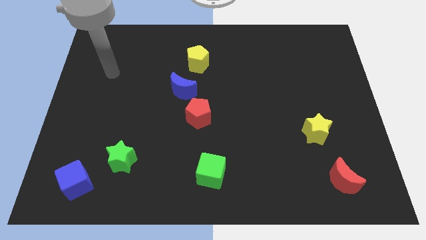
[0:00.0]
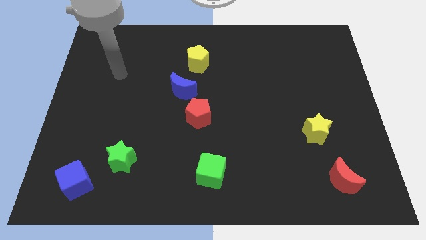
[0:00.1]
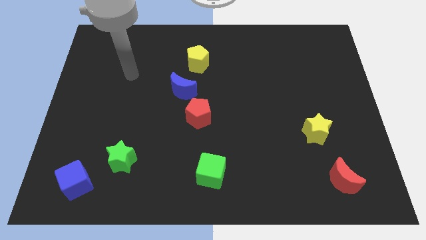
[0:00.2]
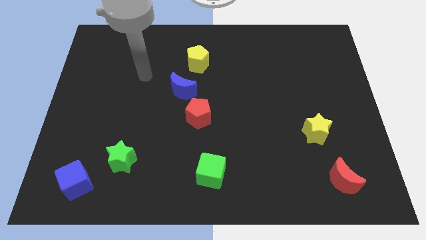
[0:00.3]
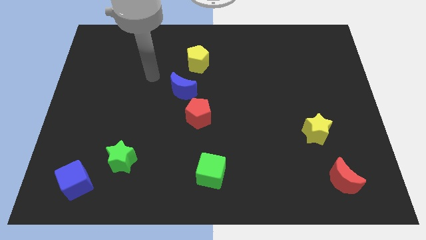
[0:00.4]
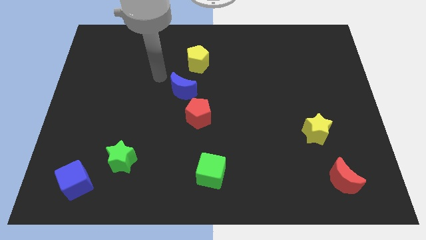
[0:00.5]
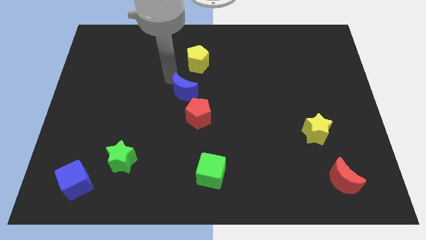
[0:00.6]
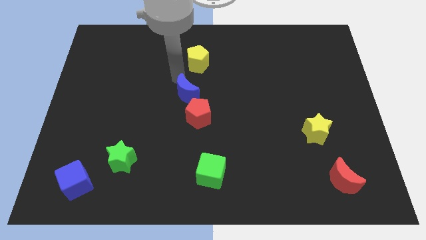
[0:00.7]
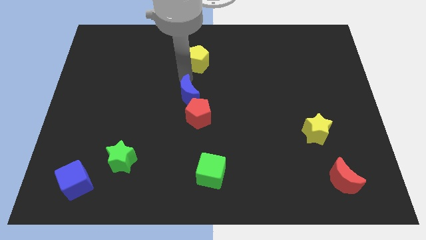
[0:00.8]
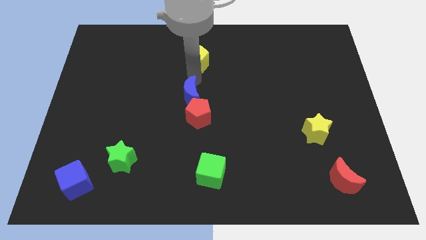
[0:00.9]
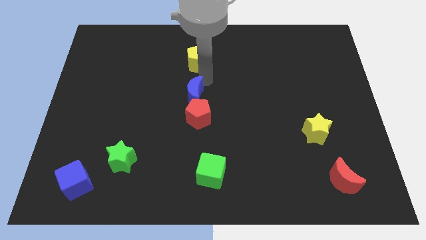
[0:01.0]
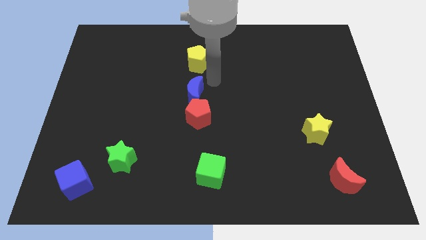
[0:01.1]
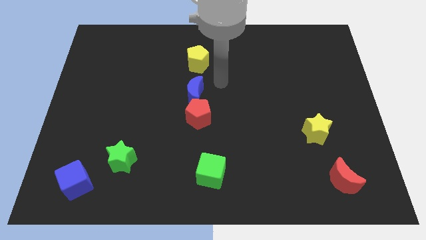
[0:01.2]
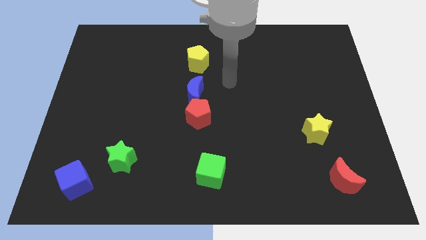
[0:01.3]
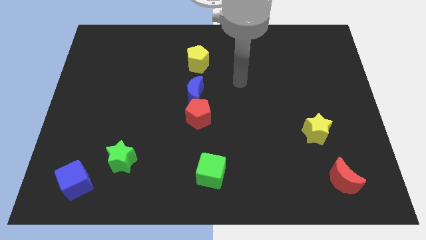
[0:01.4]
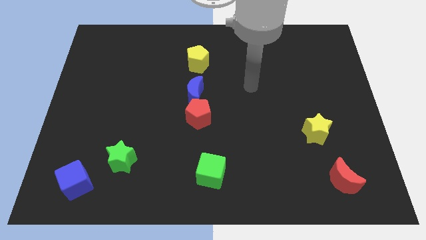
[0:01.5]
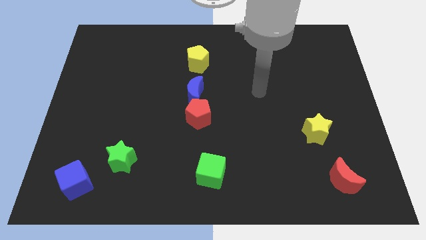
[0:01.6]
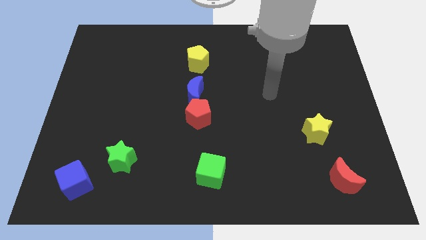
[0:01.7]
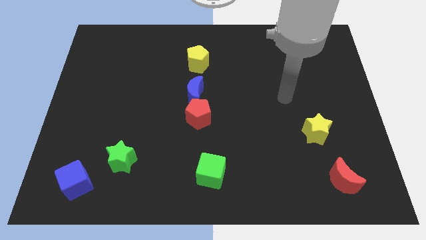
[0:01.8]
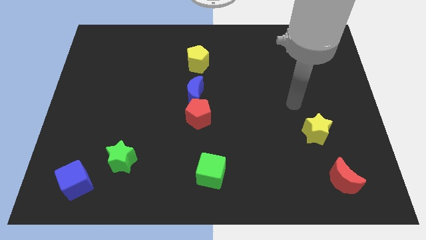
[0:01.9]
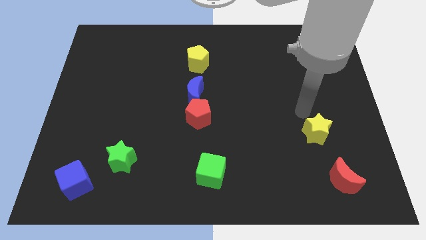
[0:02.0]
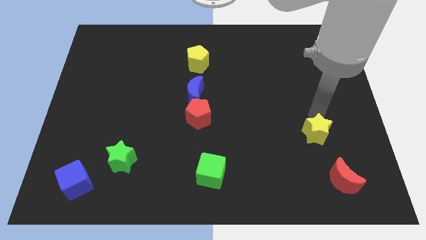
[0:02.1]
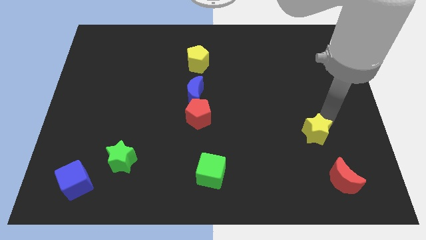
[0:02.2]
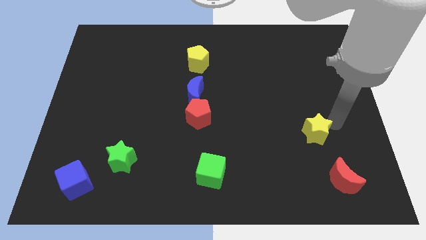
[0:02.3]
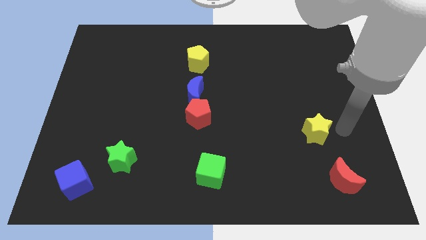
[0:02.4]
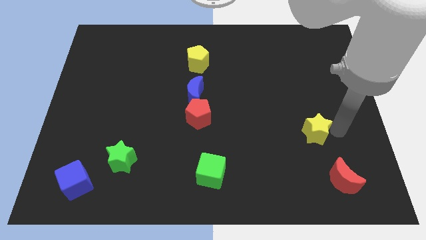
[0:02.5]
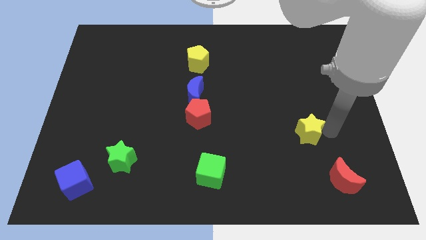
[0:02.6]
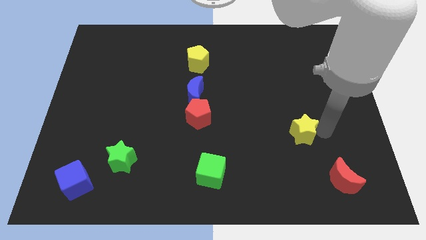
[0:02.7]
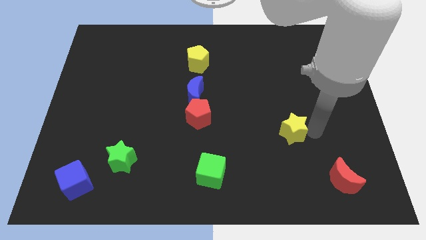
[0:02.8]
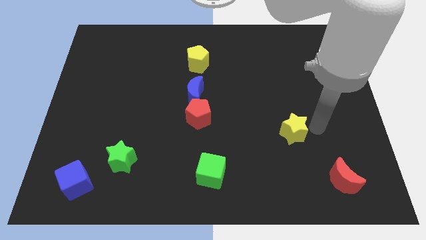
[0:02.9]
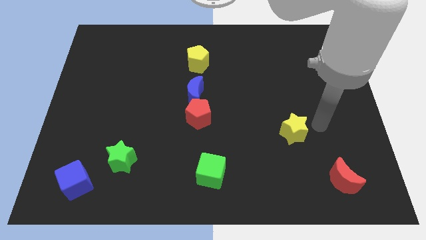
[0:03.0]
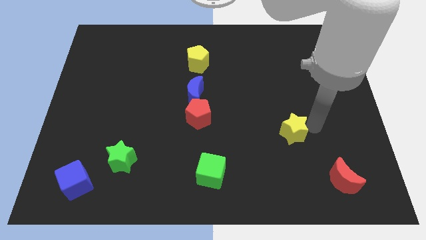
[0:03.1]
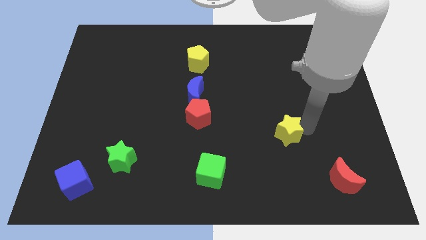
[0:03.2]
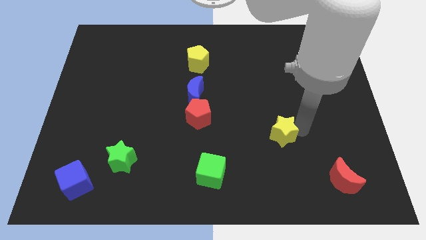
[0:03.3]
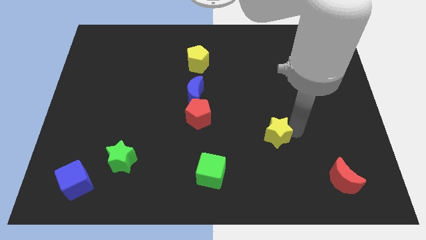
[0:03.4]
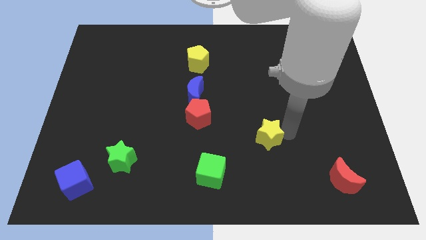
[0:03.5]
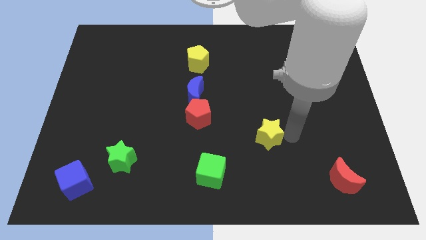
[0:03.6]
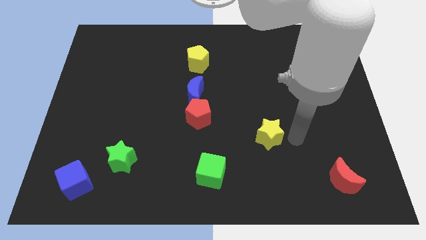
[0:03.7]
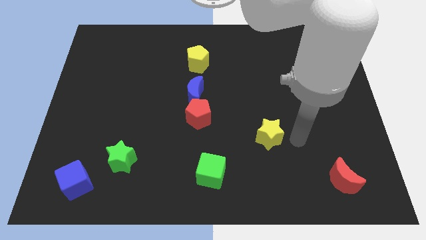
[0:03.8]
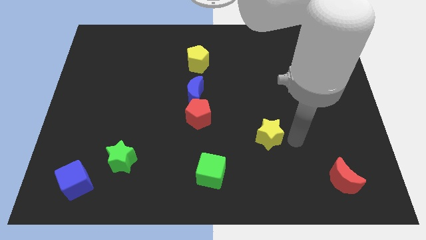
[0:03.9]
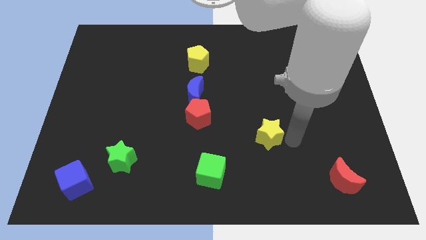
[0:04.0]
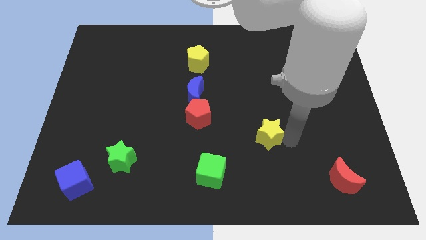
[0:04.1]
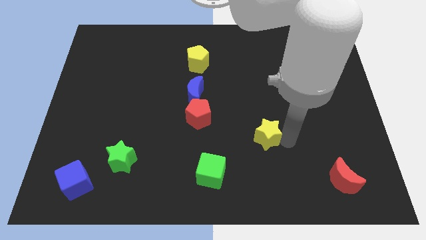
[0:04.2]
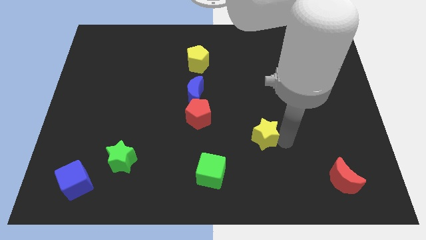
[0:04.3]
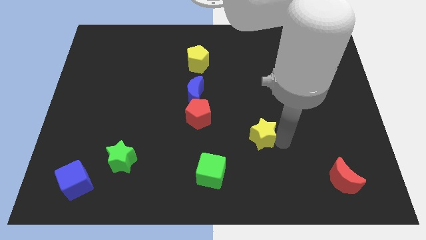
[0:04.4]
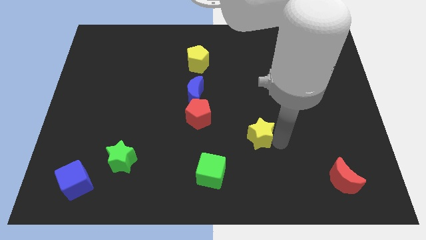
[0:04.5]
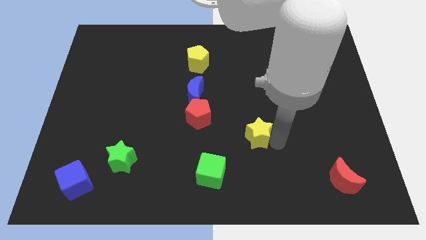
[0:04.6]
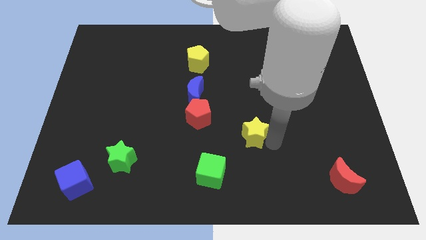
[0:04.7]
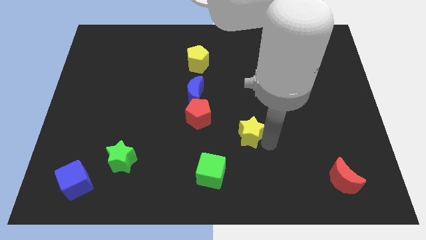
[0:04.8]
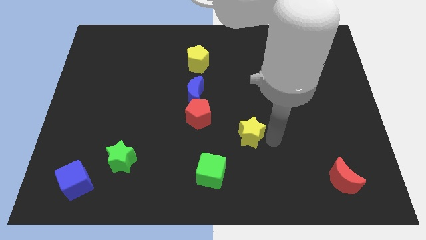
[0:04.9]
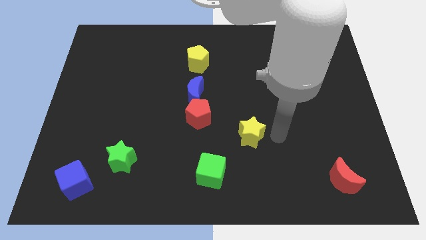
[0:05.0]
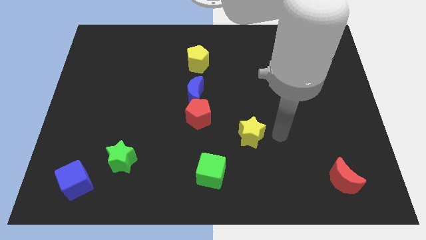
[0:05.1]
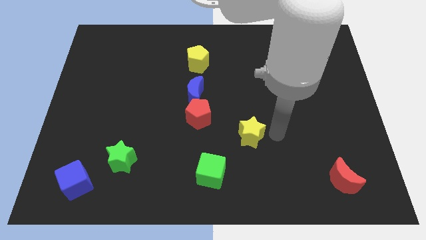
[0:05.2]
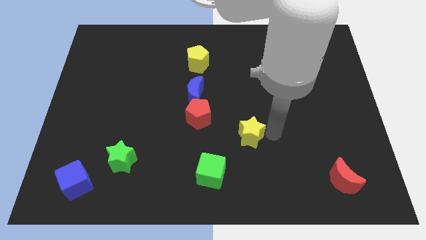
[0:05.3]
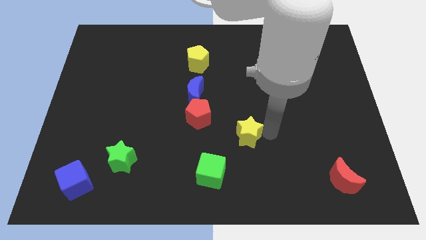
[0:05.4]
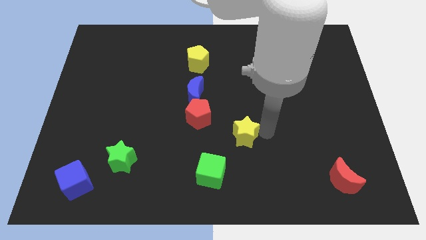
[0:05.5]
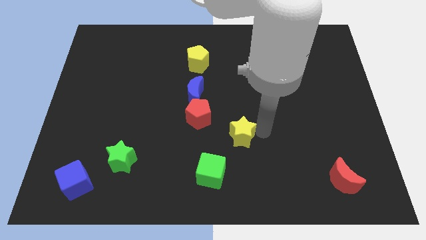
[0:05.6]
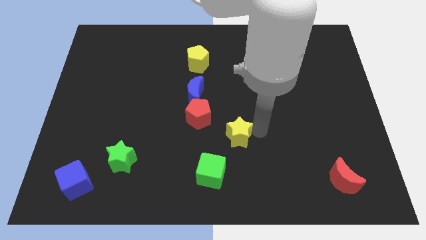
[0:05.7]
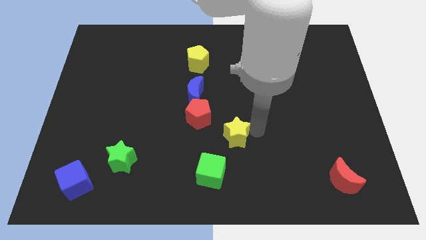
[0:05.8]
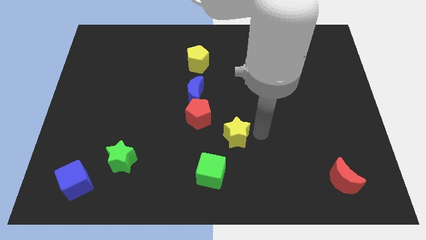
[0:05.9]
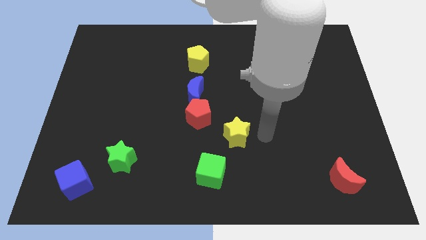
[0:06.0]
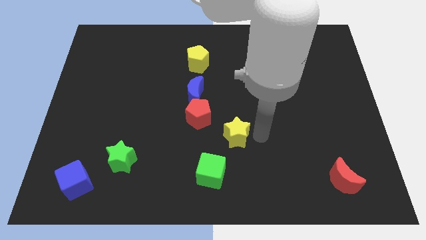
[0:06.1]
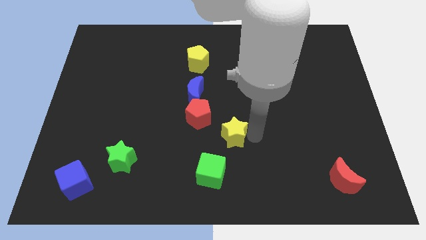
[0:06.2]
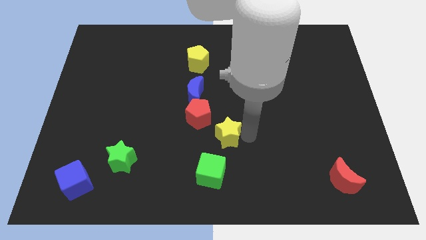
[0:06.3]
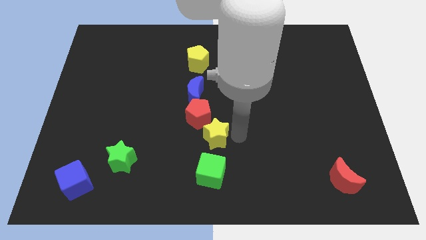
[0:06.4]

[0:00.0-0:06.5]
slide the yellow star to the bottom side of the blue moon
